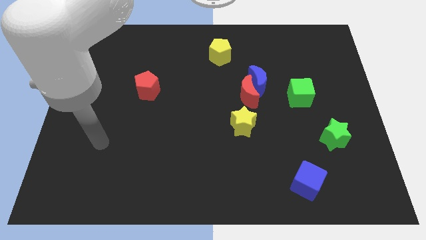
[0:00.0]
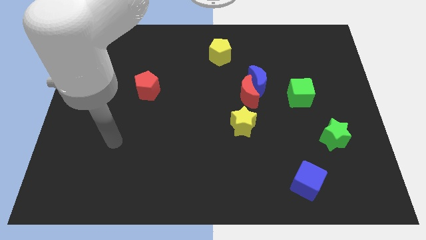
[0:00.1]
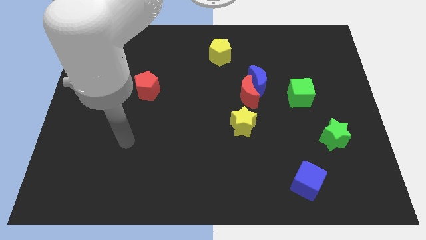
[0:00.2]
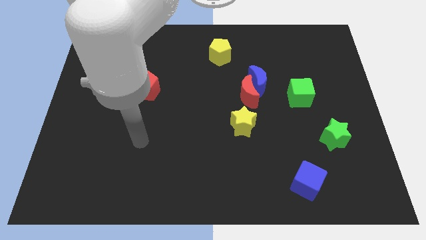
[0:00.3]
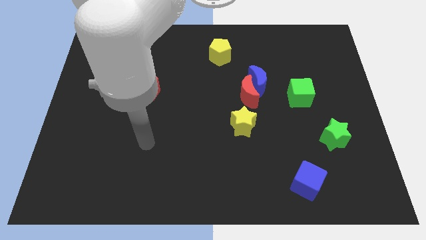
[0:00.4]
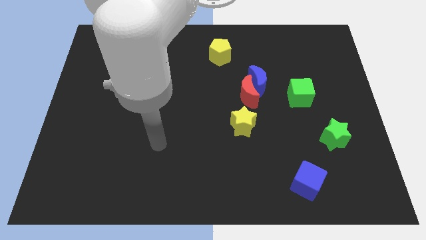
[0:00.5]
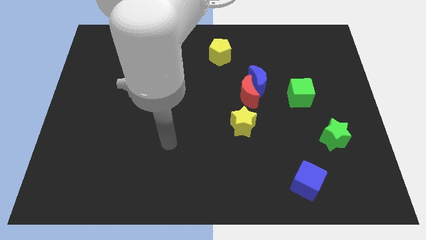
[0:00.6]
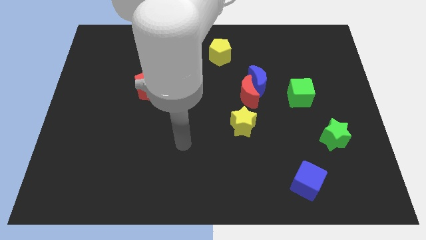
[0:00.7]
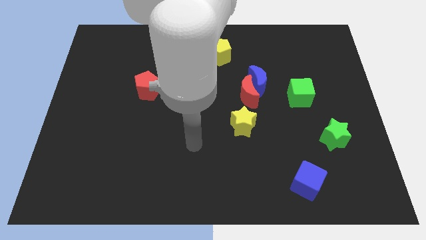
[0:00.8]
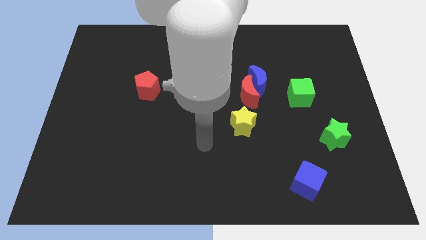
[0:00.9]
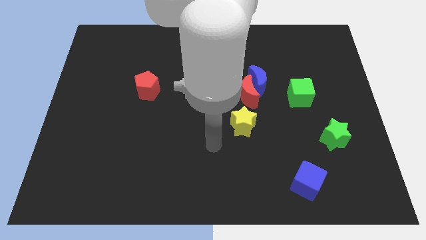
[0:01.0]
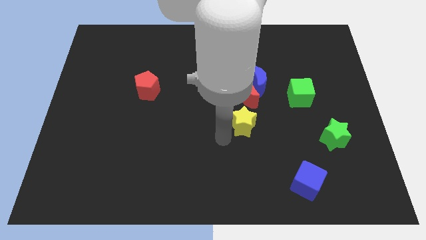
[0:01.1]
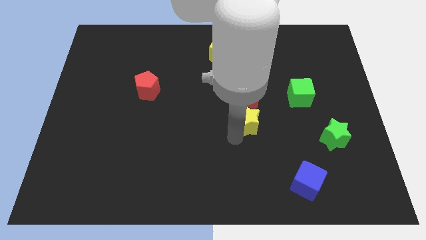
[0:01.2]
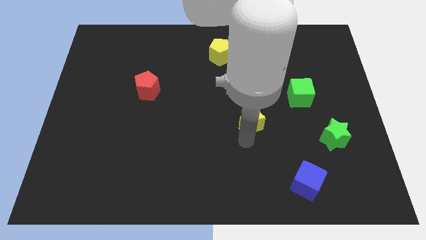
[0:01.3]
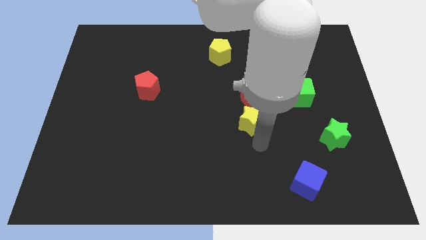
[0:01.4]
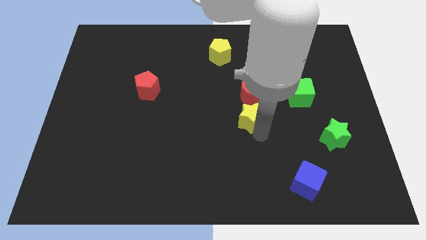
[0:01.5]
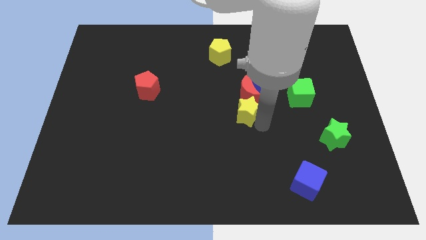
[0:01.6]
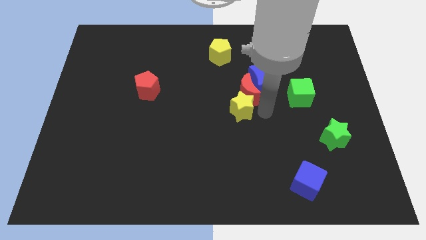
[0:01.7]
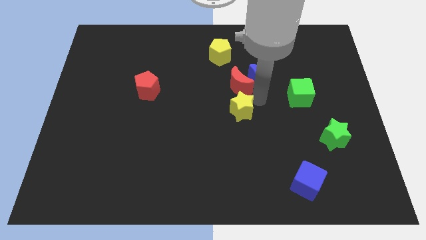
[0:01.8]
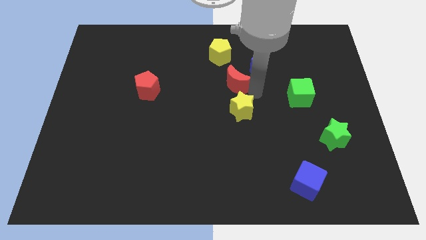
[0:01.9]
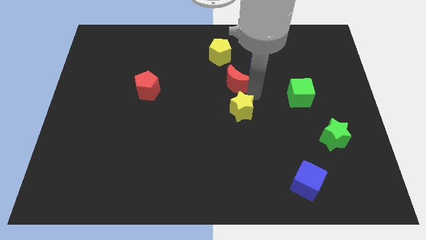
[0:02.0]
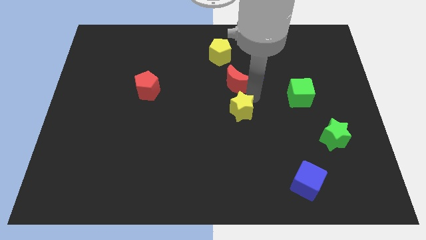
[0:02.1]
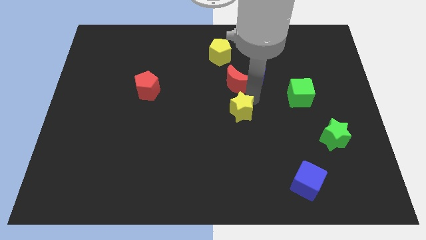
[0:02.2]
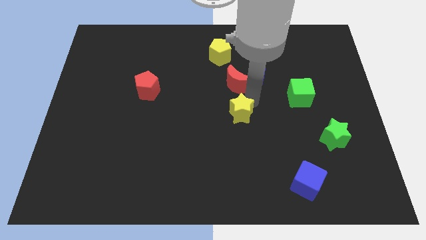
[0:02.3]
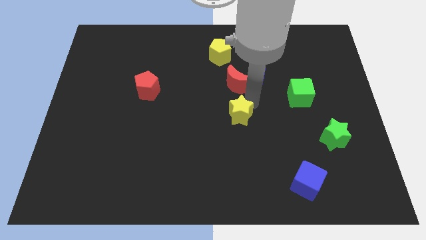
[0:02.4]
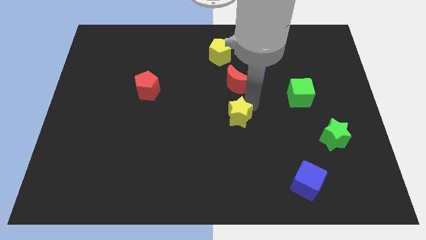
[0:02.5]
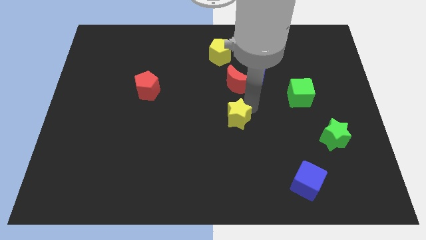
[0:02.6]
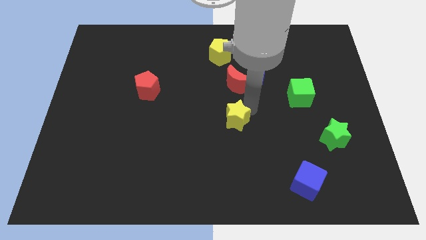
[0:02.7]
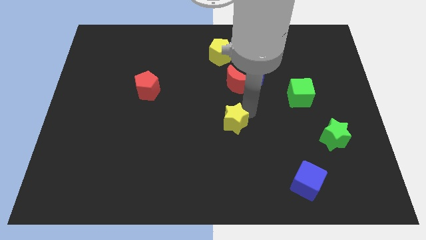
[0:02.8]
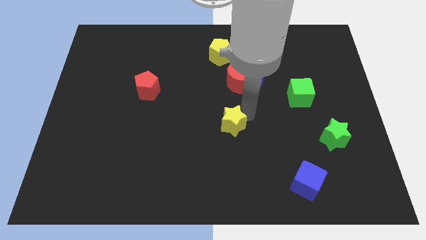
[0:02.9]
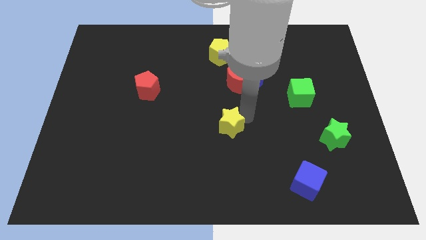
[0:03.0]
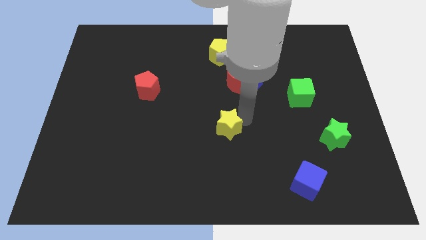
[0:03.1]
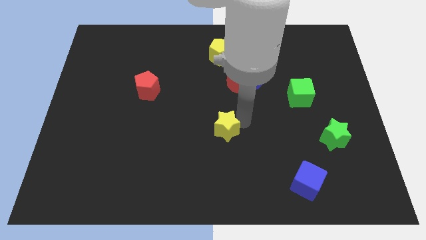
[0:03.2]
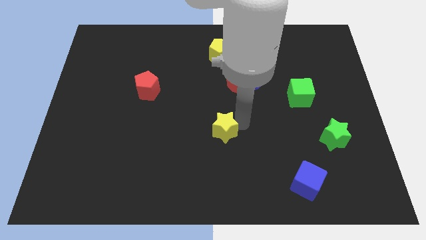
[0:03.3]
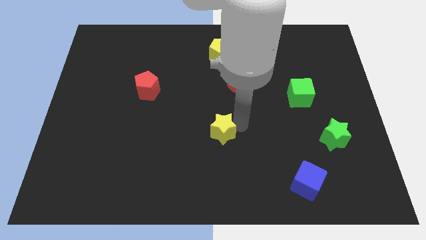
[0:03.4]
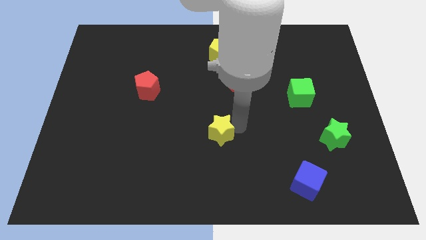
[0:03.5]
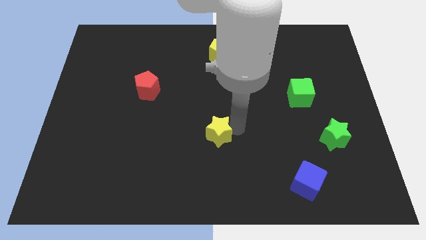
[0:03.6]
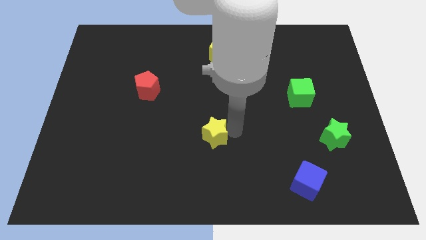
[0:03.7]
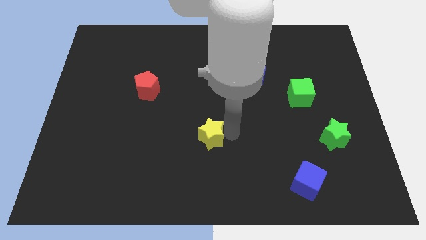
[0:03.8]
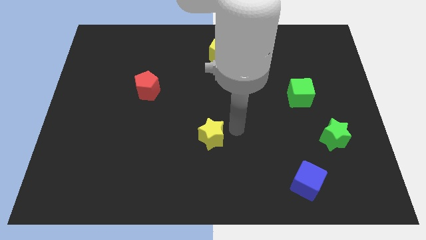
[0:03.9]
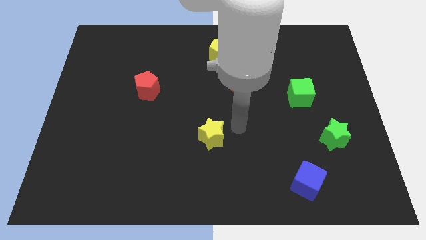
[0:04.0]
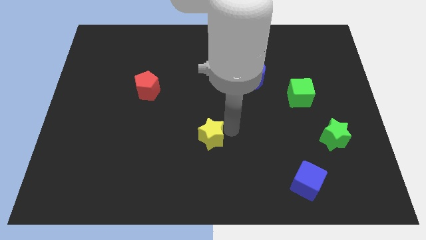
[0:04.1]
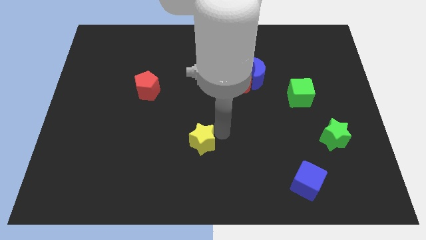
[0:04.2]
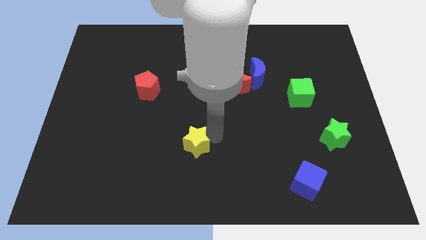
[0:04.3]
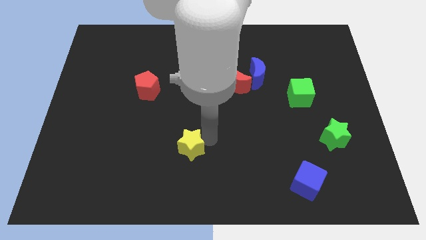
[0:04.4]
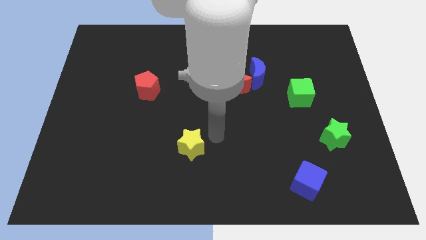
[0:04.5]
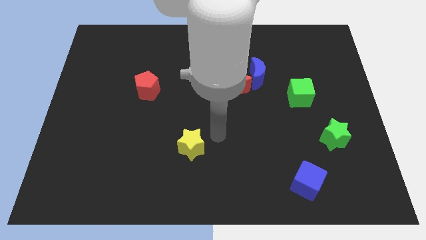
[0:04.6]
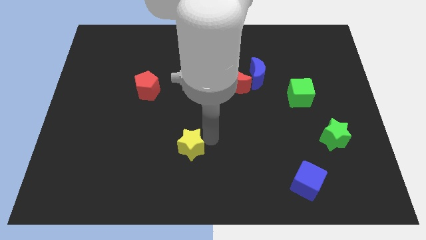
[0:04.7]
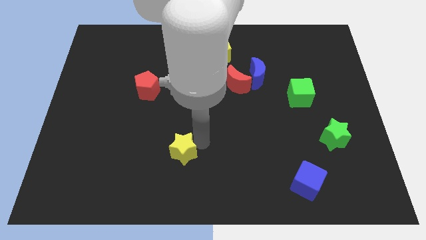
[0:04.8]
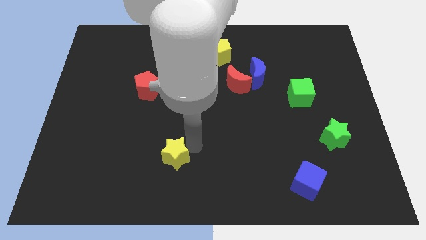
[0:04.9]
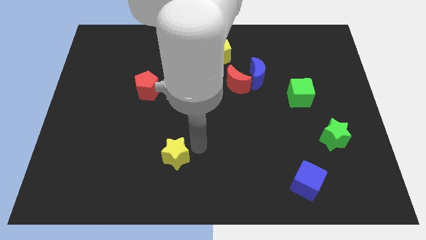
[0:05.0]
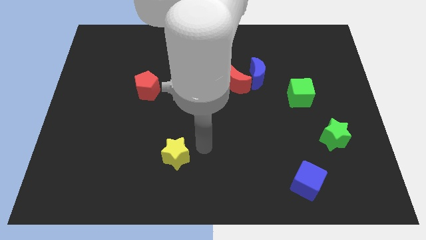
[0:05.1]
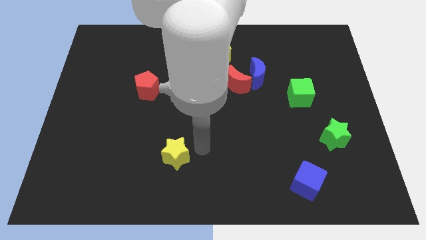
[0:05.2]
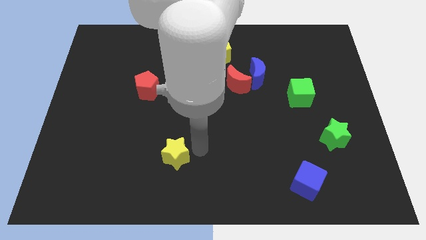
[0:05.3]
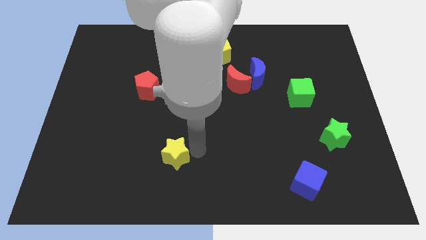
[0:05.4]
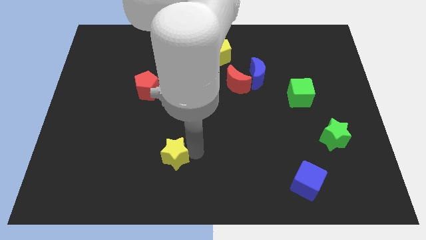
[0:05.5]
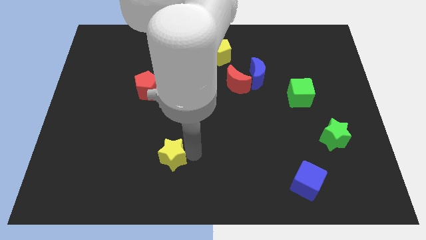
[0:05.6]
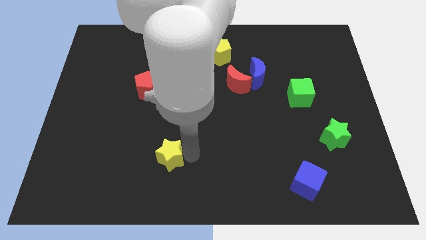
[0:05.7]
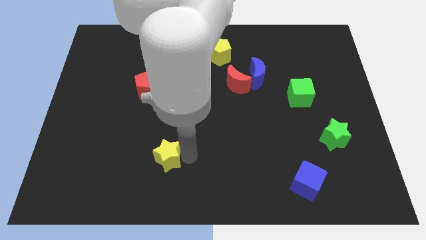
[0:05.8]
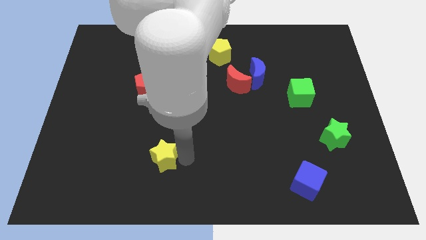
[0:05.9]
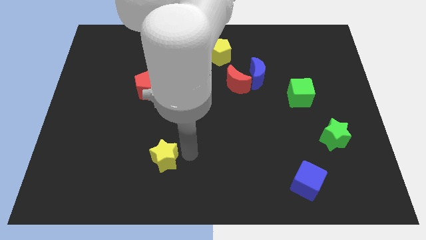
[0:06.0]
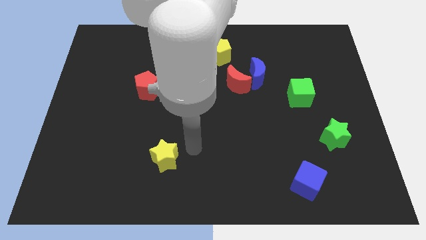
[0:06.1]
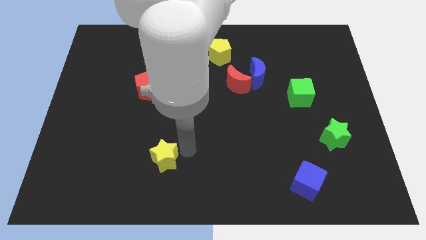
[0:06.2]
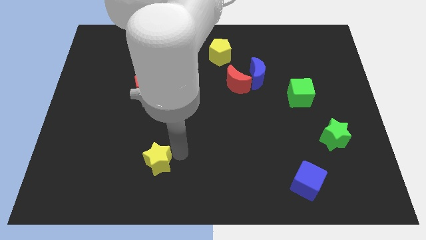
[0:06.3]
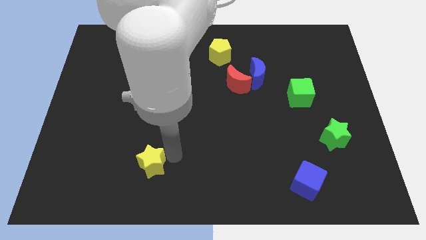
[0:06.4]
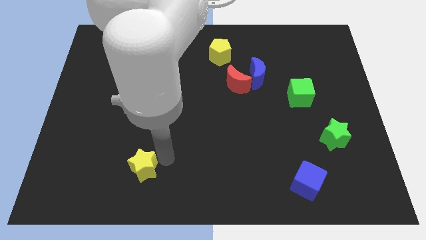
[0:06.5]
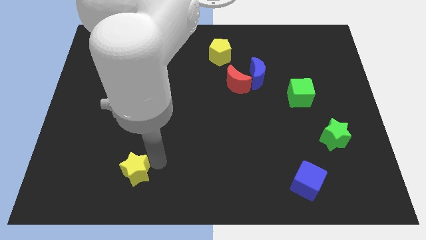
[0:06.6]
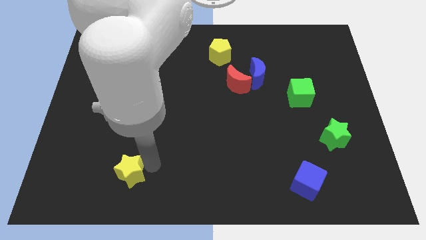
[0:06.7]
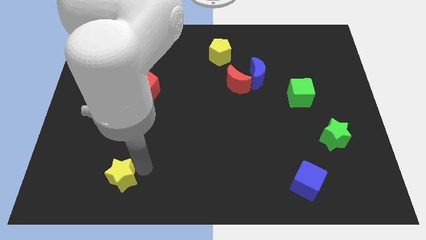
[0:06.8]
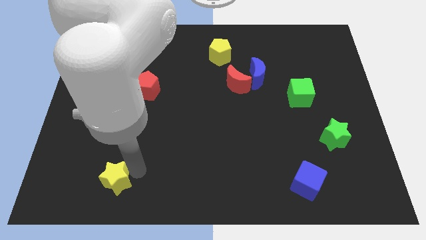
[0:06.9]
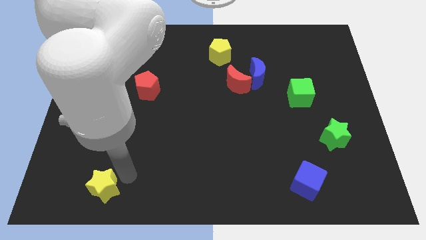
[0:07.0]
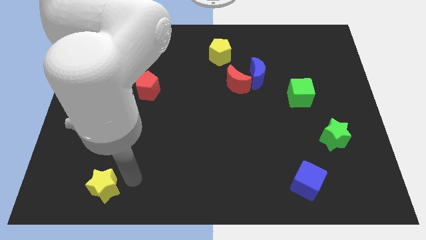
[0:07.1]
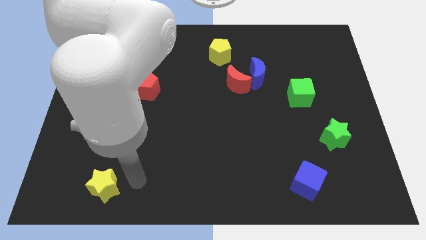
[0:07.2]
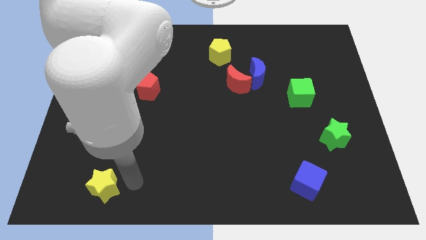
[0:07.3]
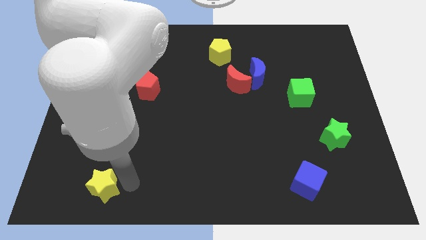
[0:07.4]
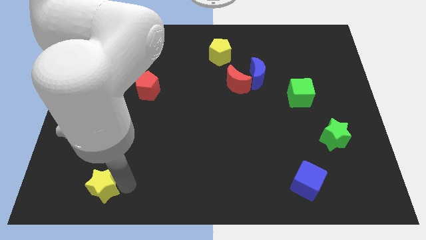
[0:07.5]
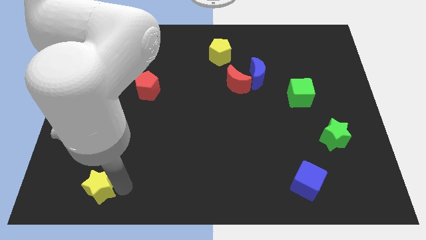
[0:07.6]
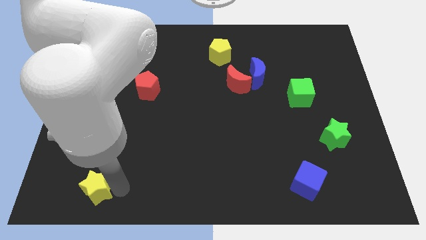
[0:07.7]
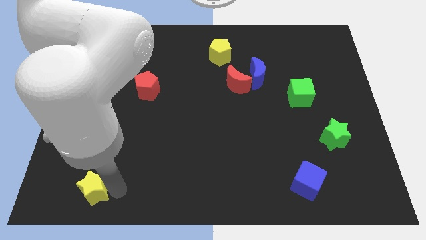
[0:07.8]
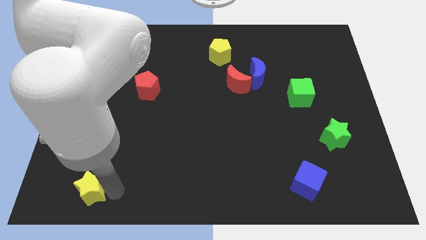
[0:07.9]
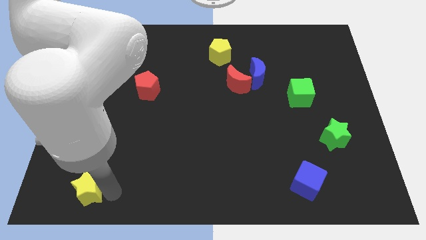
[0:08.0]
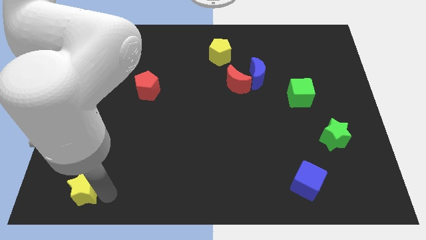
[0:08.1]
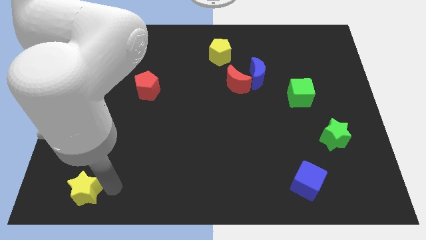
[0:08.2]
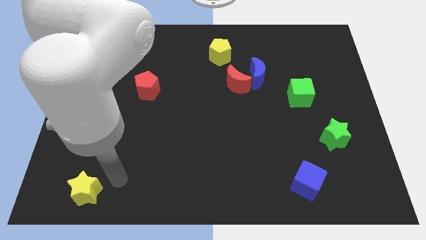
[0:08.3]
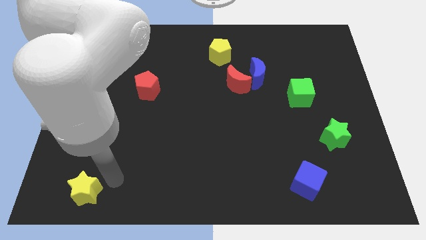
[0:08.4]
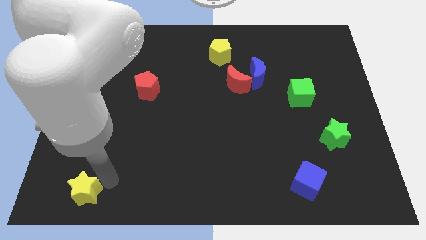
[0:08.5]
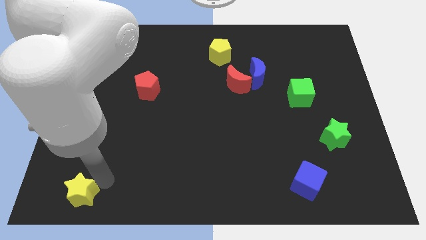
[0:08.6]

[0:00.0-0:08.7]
slide the yellow star to the lower left corner
